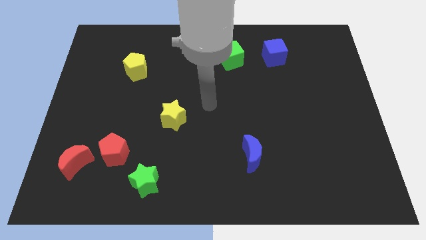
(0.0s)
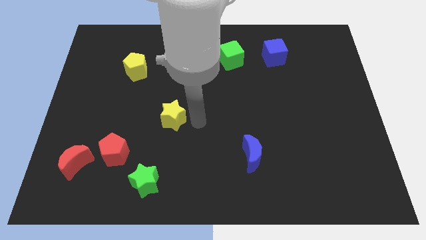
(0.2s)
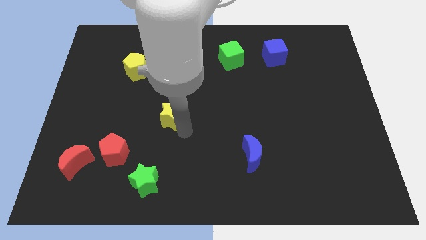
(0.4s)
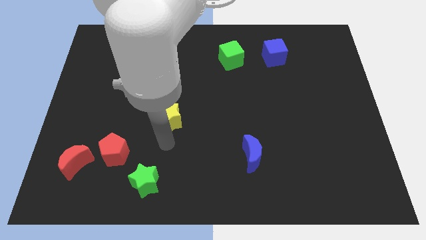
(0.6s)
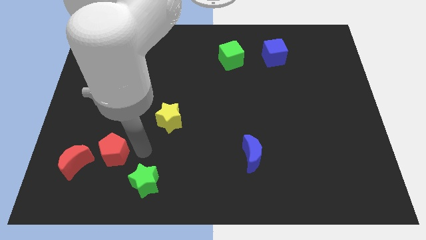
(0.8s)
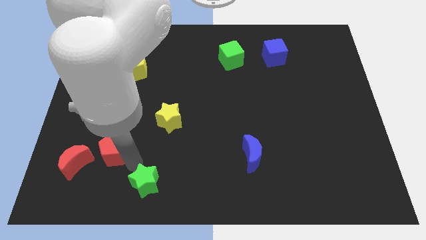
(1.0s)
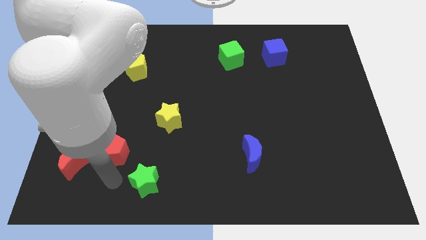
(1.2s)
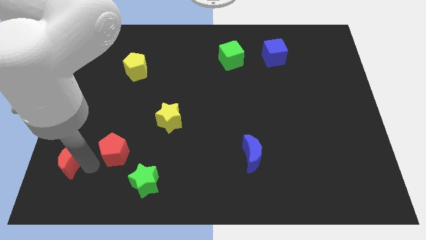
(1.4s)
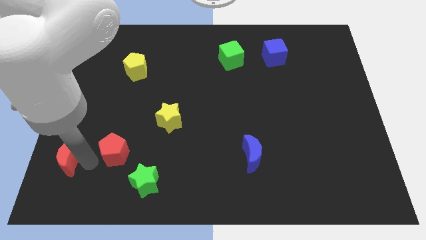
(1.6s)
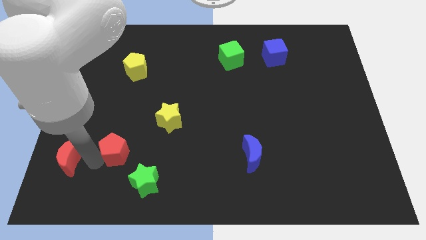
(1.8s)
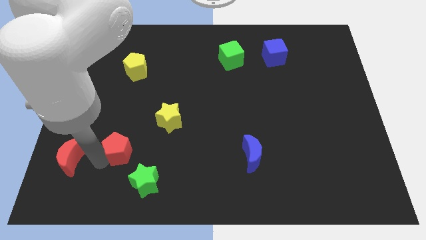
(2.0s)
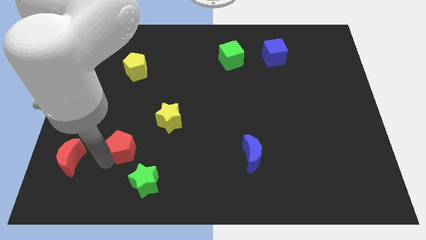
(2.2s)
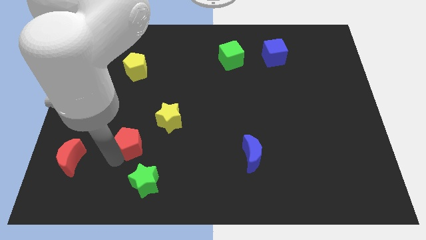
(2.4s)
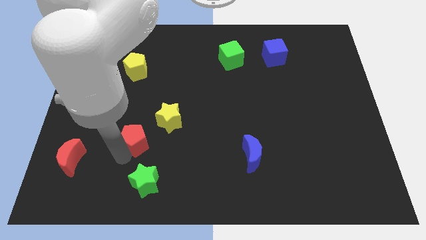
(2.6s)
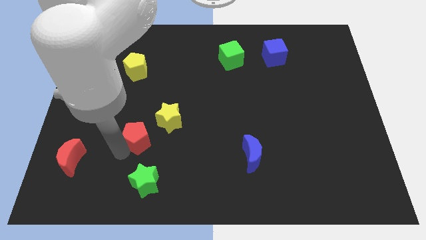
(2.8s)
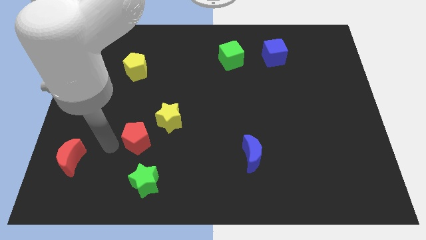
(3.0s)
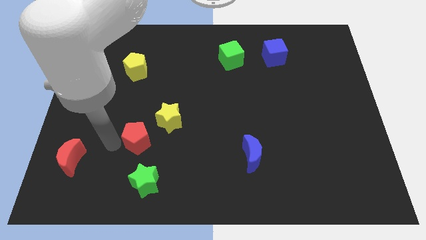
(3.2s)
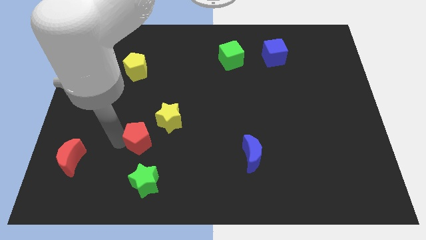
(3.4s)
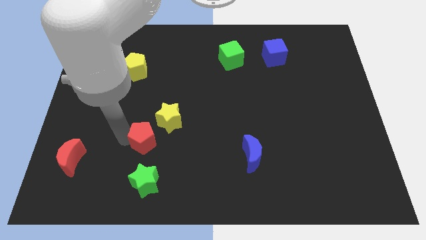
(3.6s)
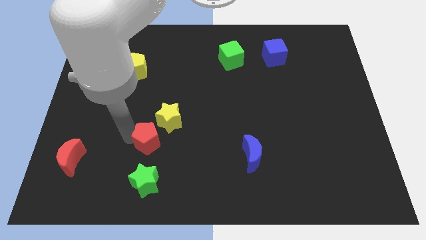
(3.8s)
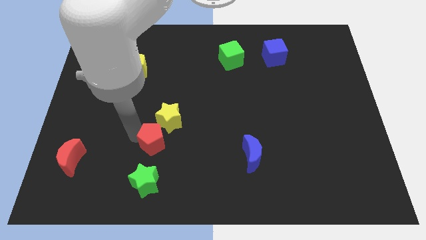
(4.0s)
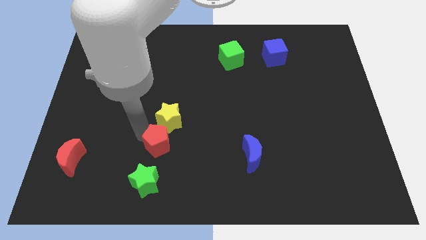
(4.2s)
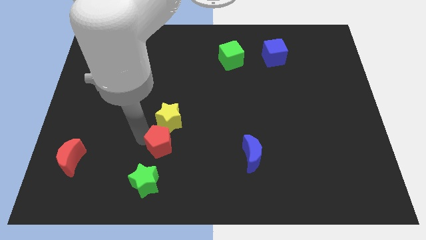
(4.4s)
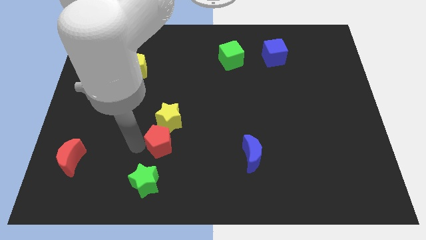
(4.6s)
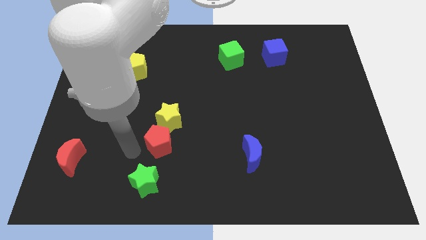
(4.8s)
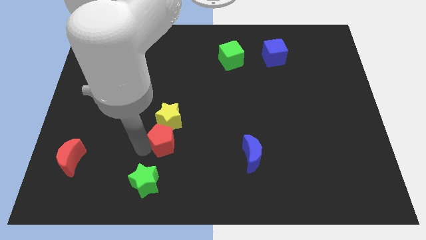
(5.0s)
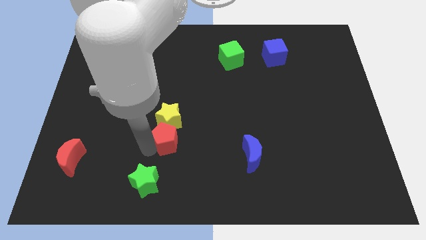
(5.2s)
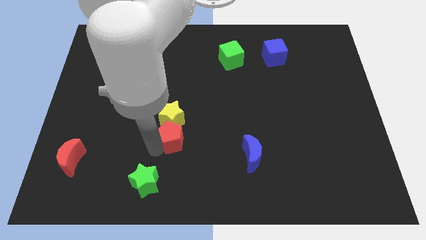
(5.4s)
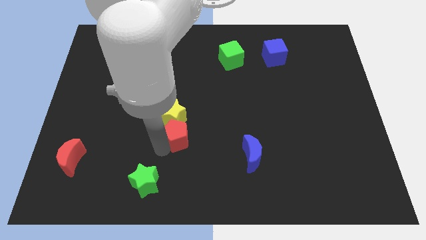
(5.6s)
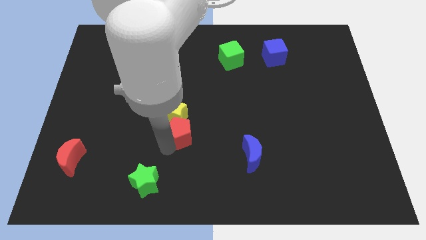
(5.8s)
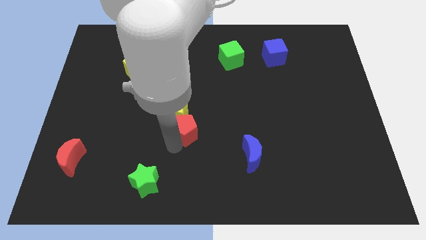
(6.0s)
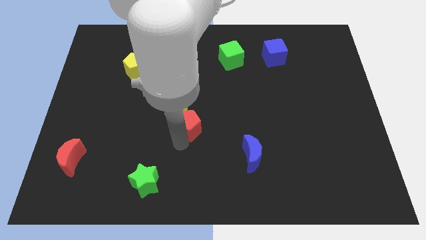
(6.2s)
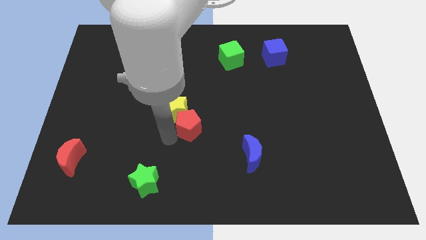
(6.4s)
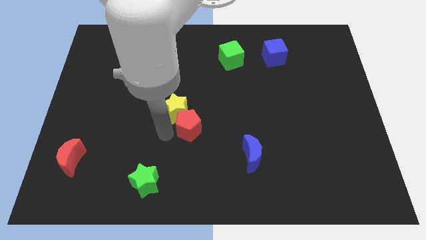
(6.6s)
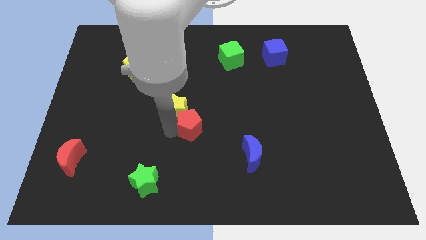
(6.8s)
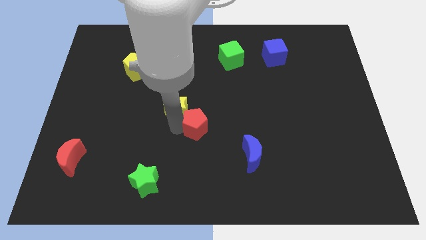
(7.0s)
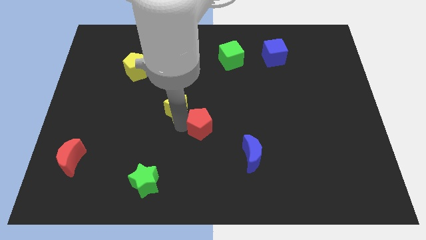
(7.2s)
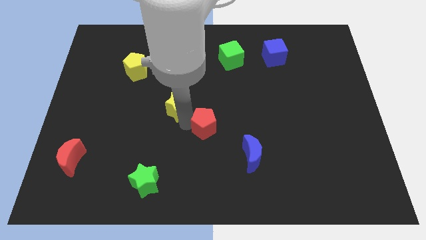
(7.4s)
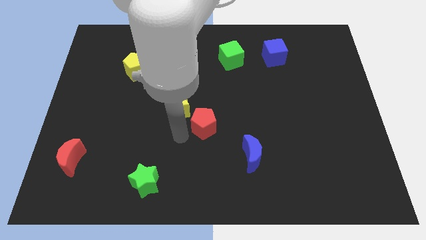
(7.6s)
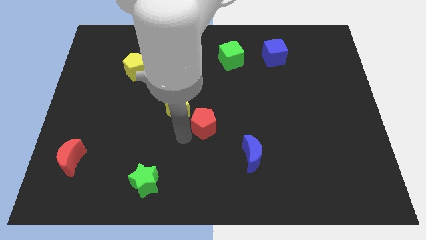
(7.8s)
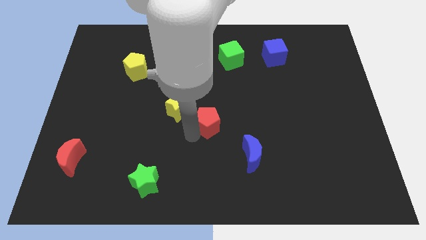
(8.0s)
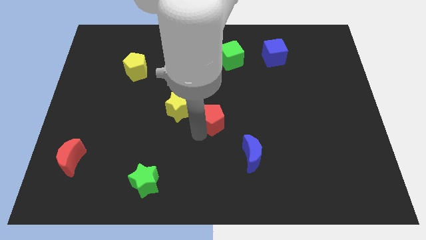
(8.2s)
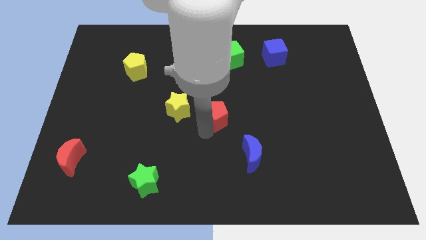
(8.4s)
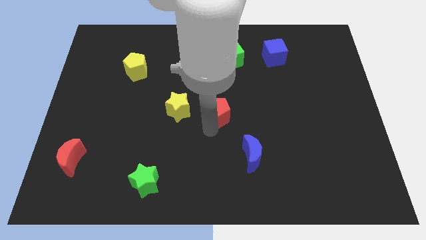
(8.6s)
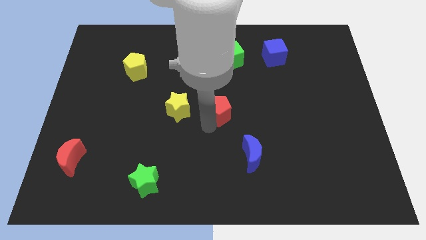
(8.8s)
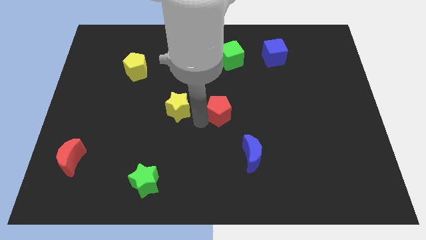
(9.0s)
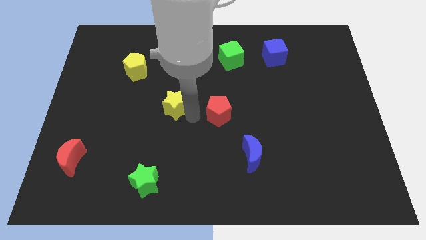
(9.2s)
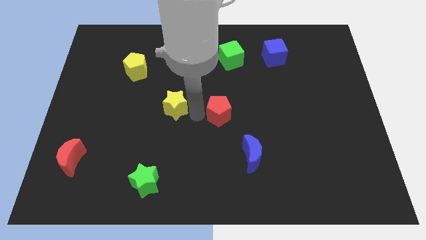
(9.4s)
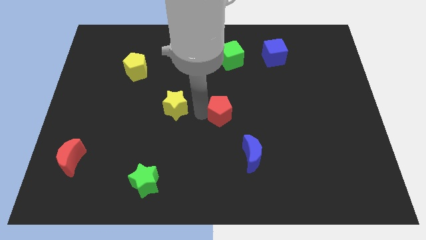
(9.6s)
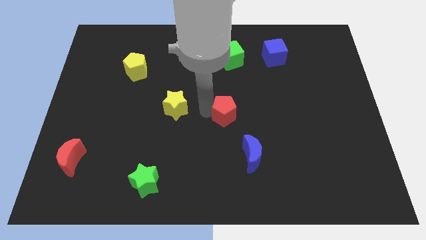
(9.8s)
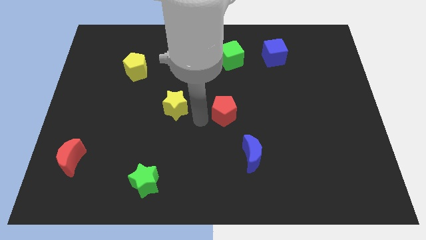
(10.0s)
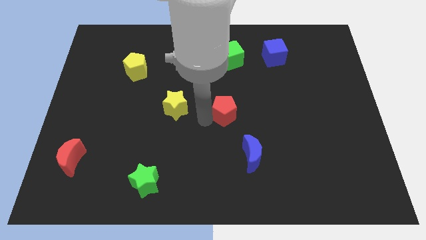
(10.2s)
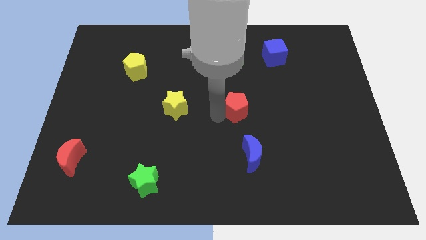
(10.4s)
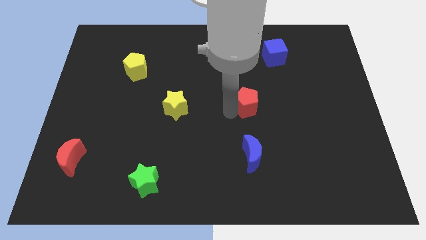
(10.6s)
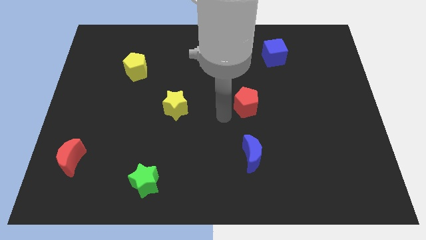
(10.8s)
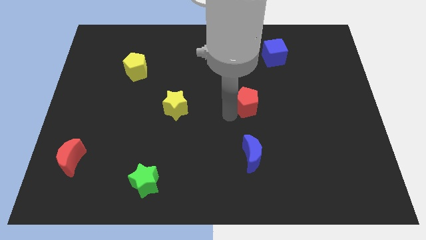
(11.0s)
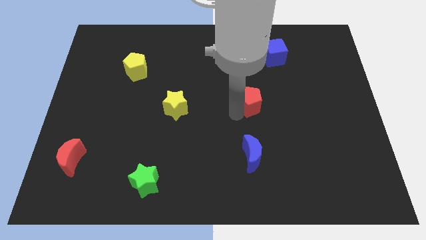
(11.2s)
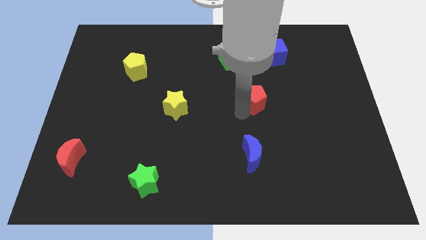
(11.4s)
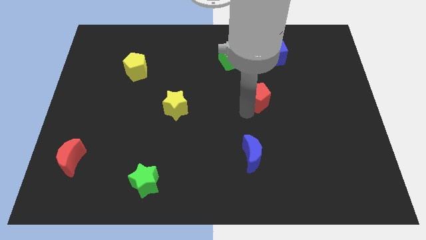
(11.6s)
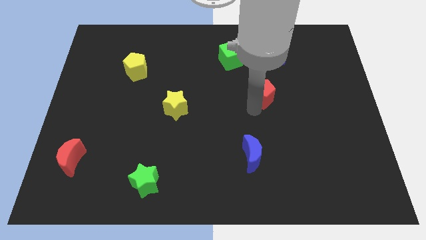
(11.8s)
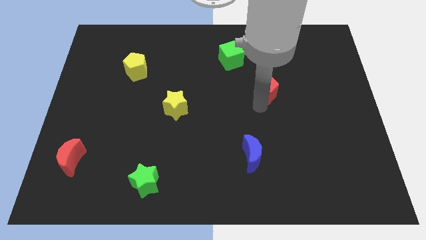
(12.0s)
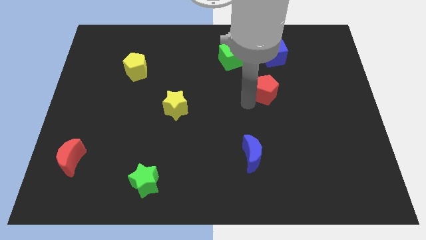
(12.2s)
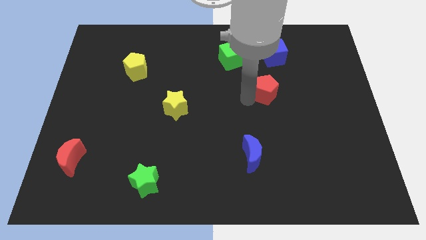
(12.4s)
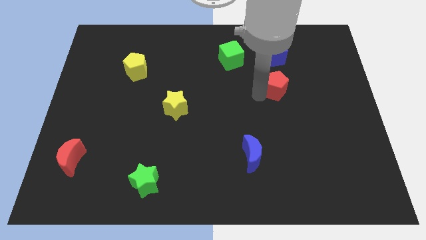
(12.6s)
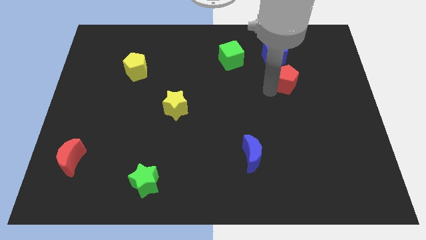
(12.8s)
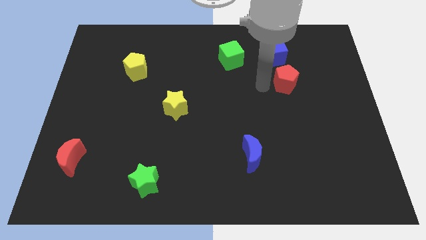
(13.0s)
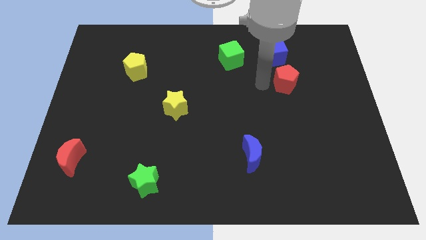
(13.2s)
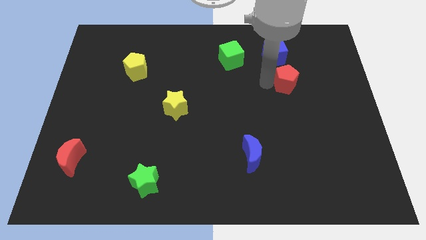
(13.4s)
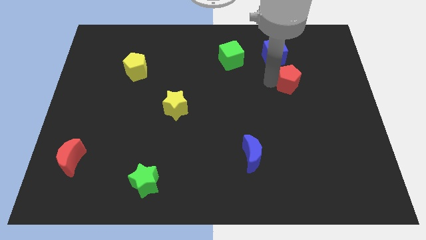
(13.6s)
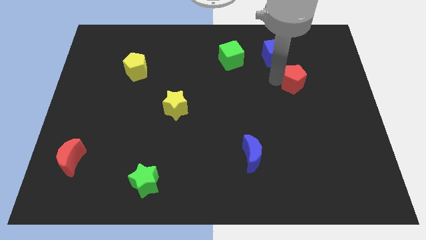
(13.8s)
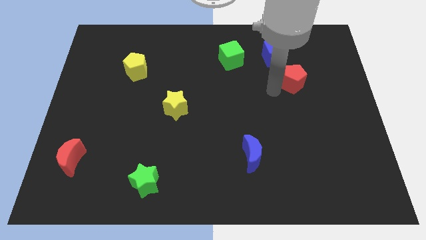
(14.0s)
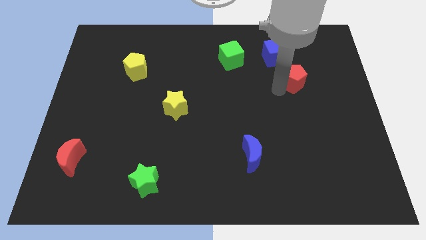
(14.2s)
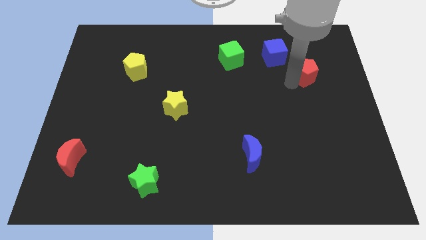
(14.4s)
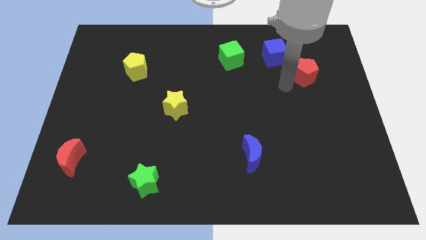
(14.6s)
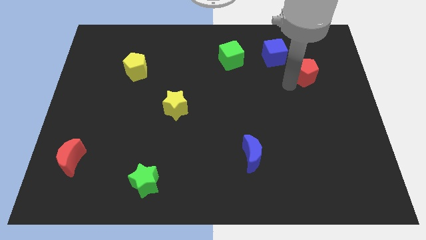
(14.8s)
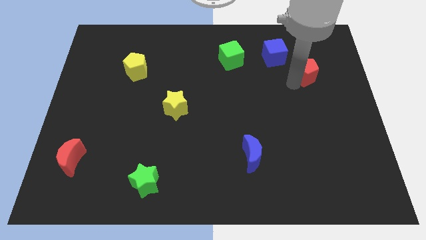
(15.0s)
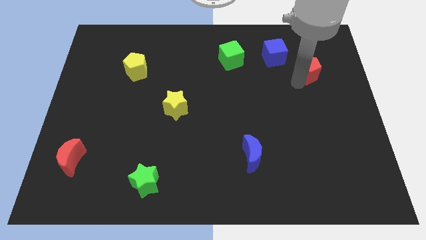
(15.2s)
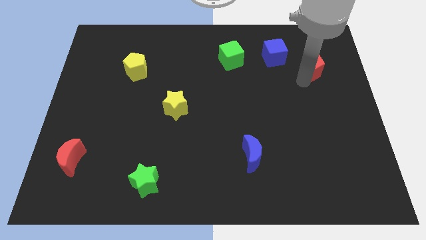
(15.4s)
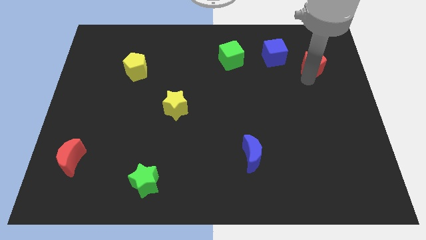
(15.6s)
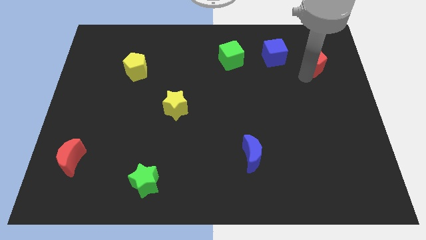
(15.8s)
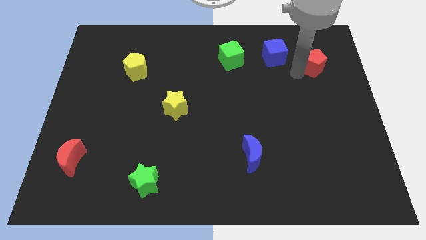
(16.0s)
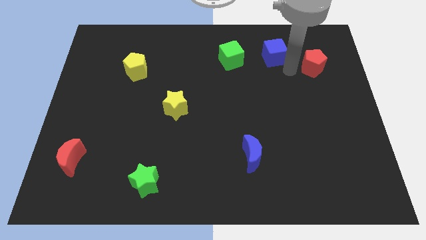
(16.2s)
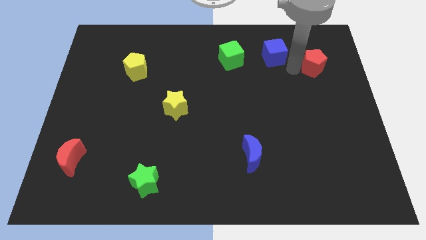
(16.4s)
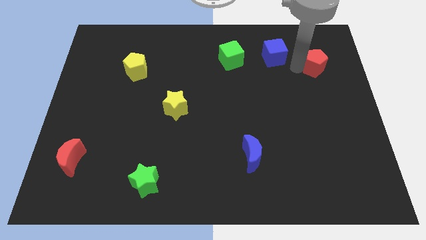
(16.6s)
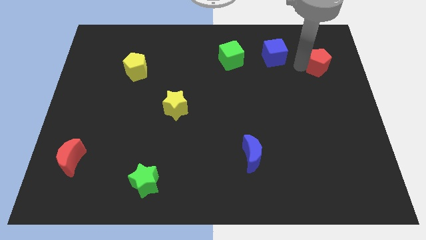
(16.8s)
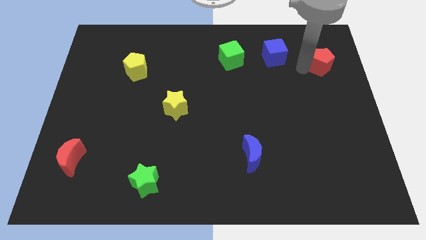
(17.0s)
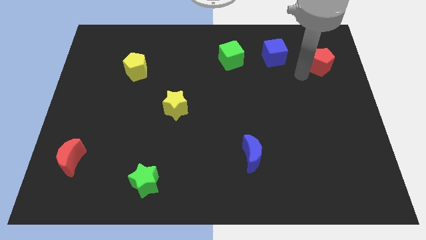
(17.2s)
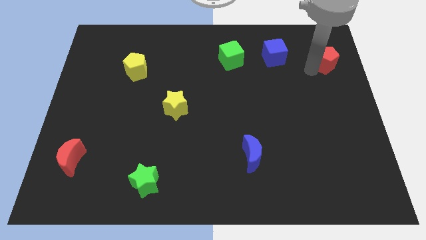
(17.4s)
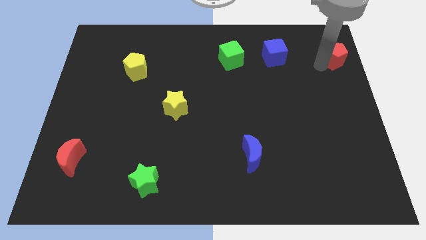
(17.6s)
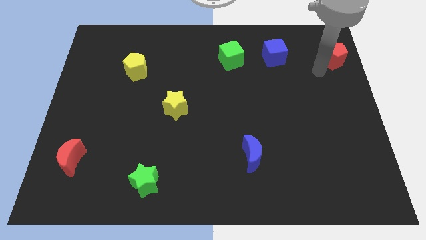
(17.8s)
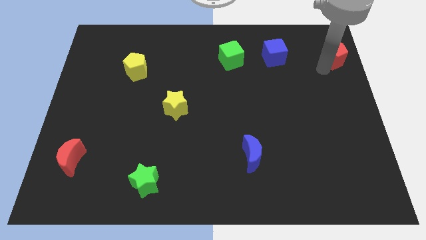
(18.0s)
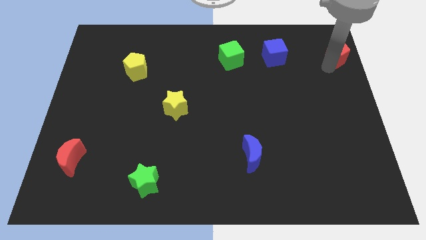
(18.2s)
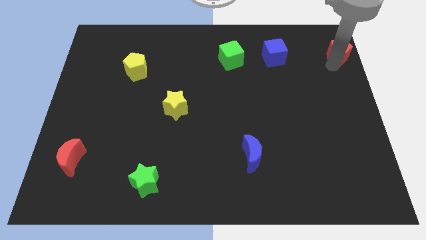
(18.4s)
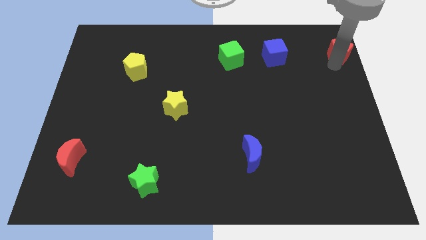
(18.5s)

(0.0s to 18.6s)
move the red pentagon to the top right corner
